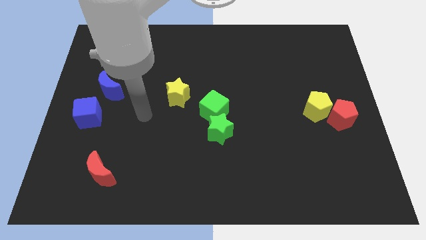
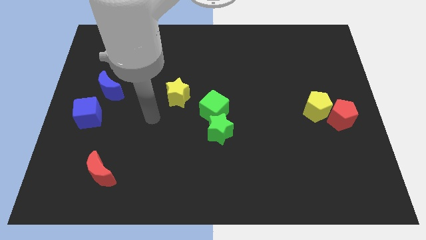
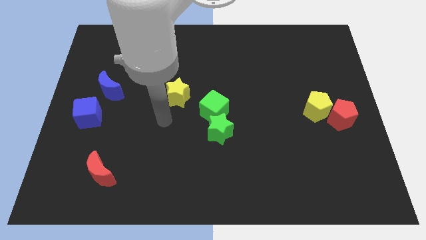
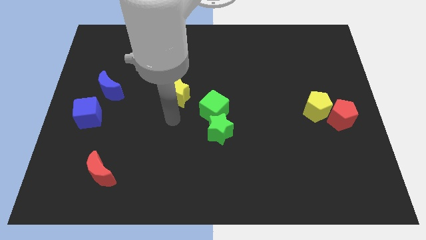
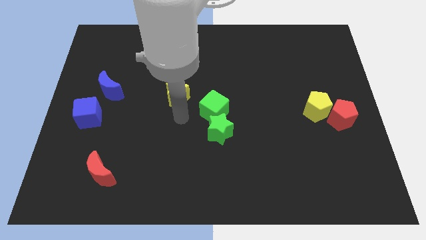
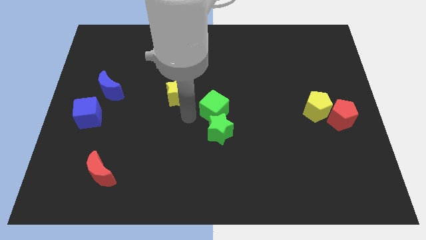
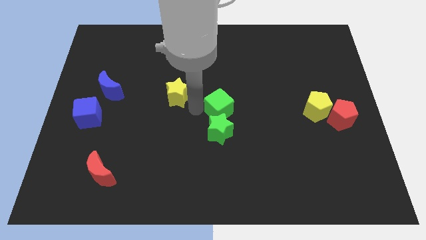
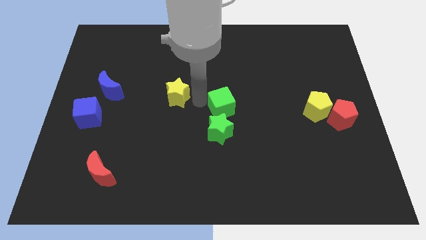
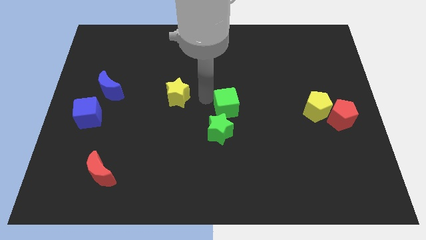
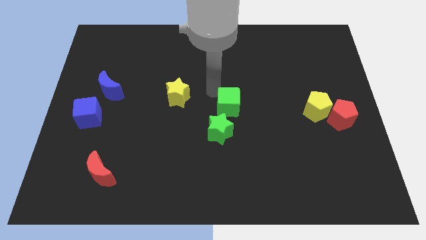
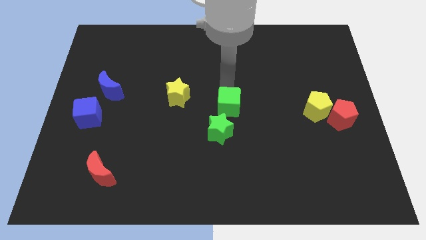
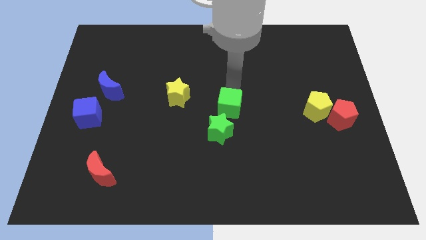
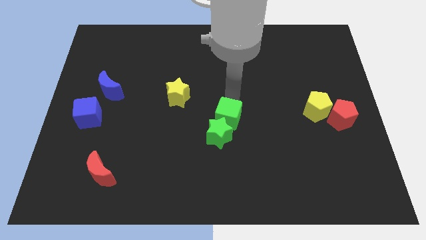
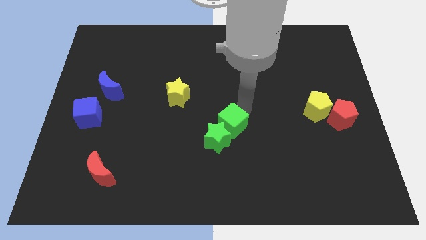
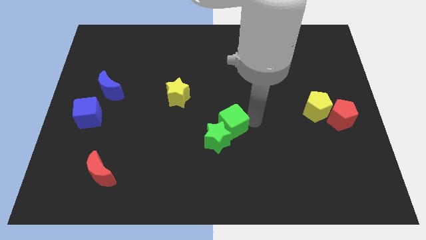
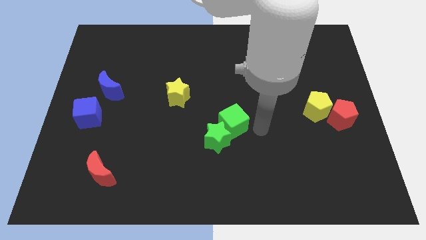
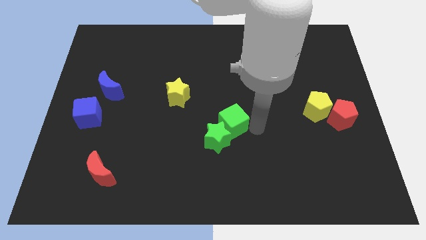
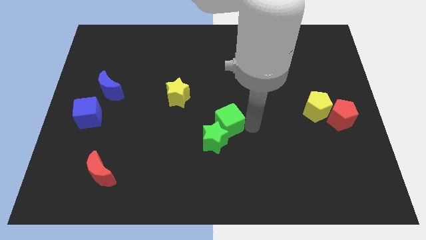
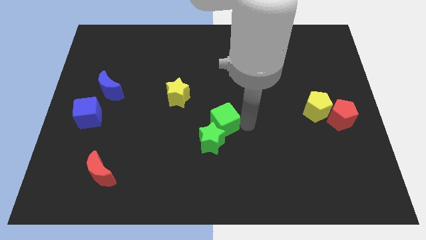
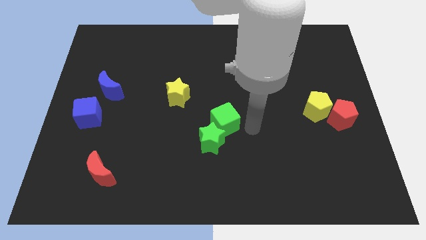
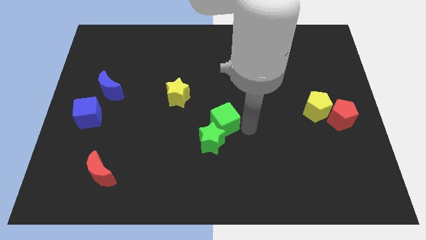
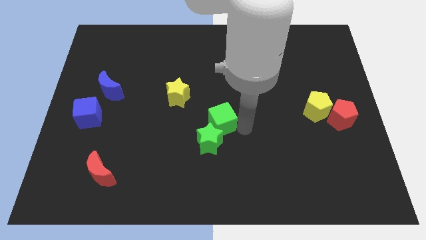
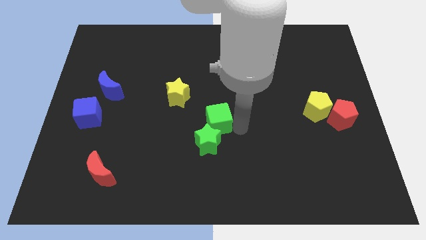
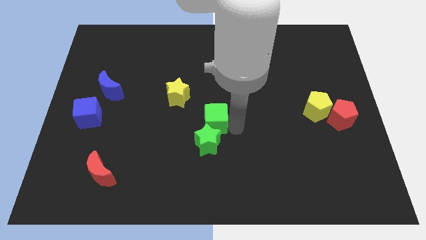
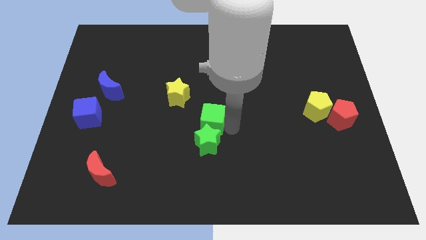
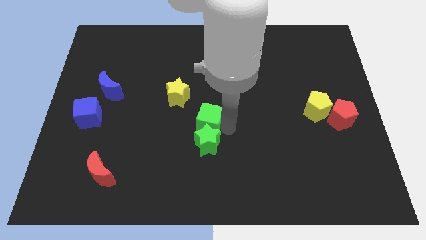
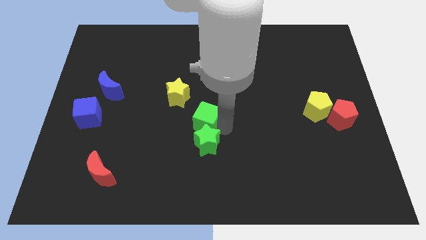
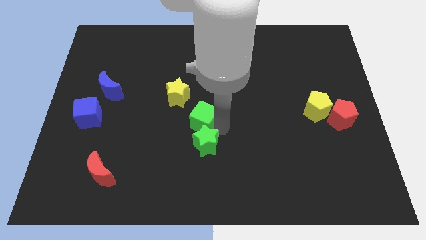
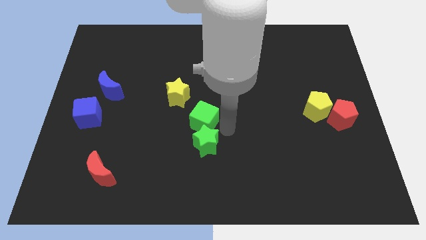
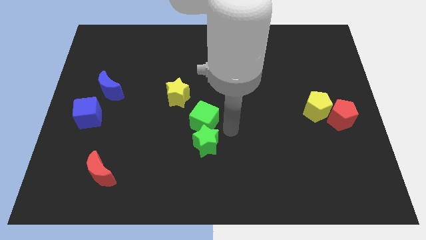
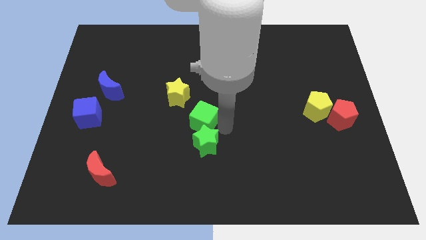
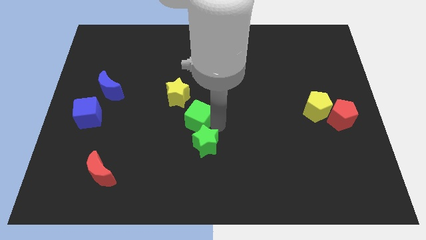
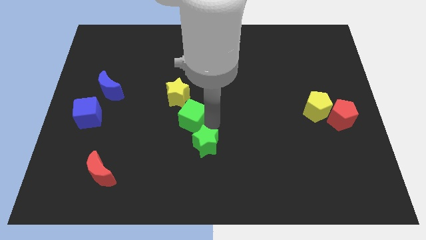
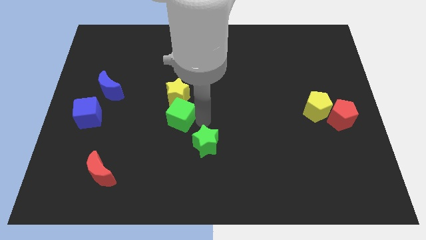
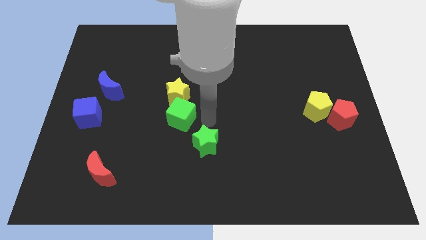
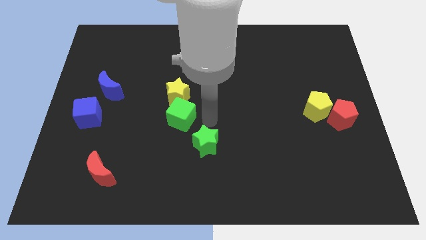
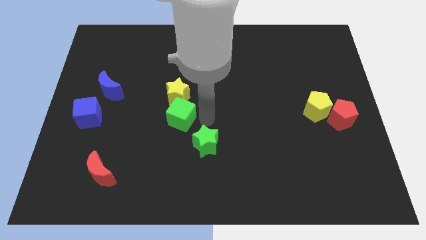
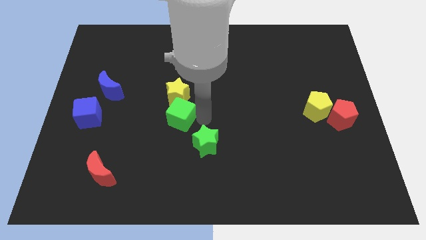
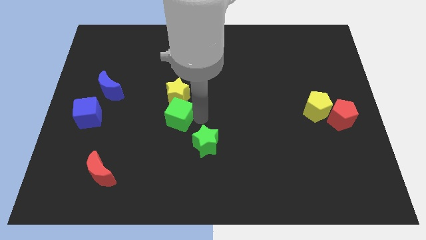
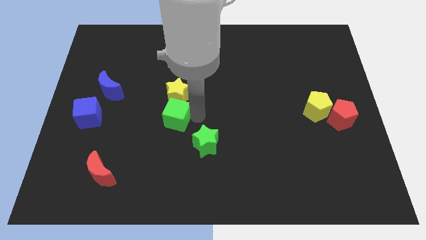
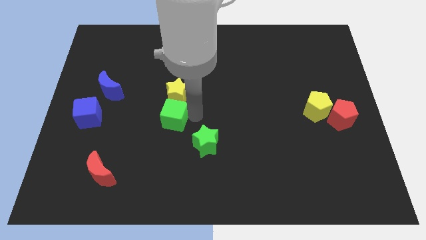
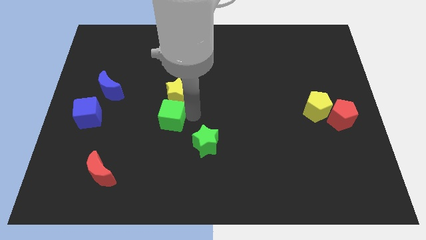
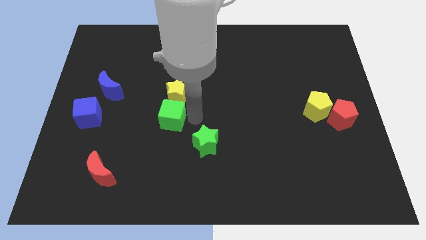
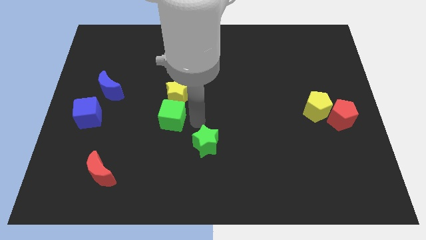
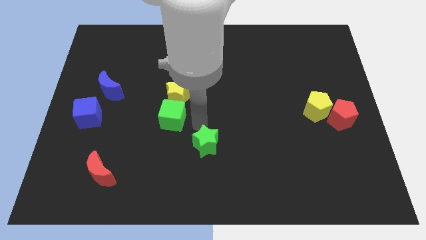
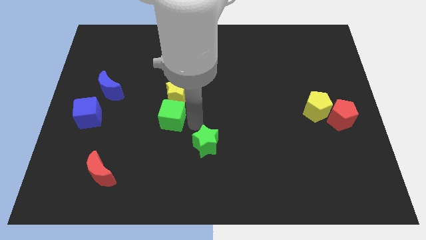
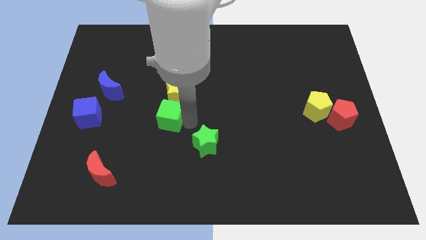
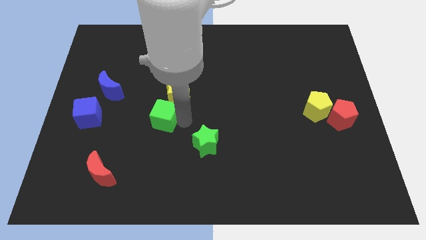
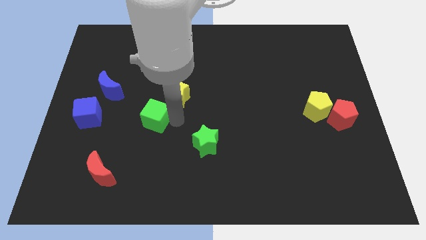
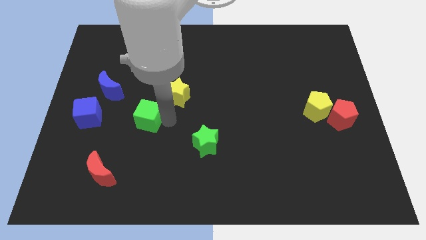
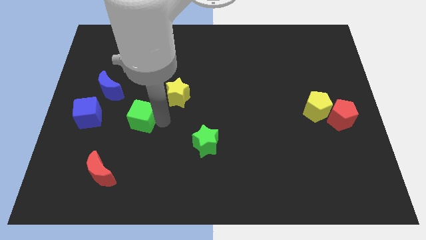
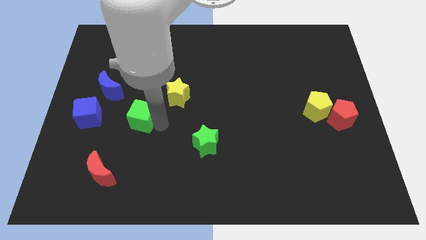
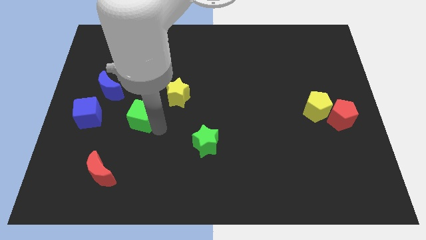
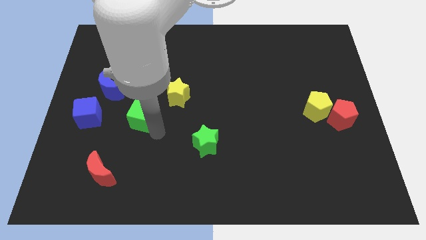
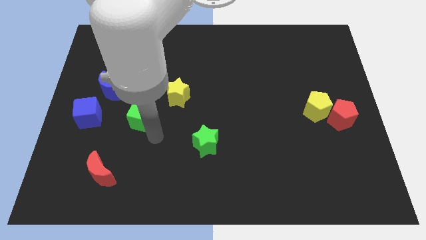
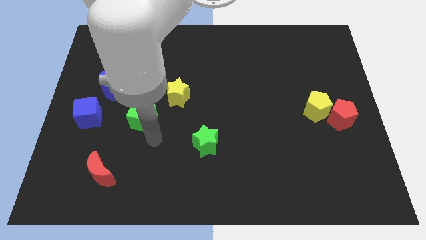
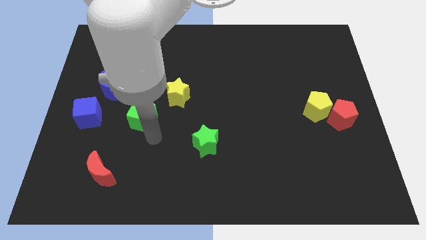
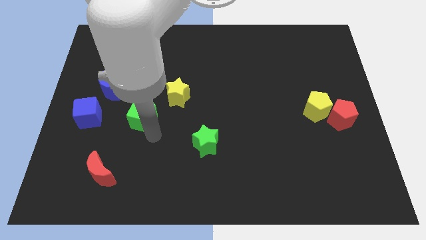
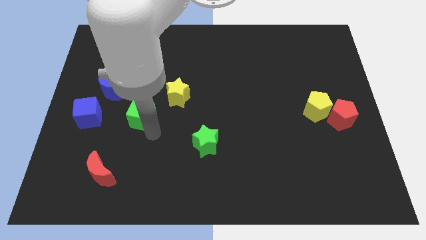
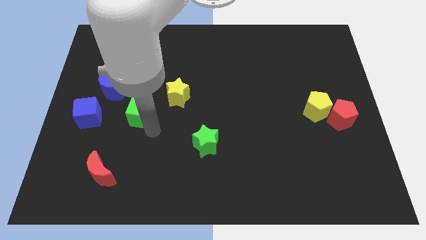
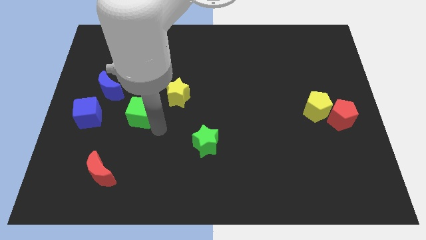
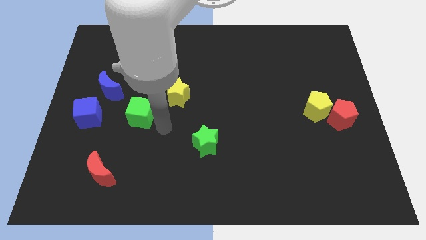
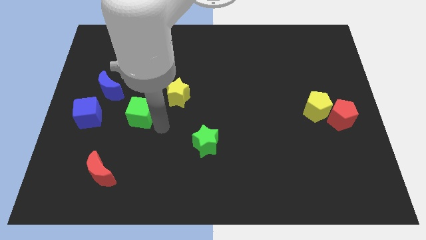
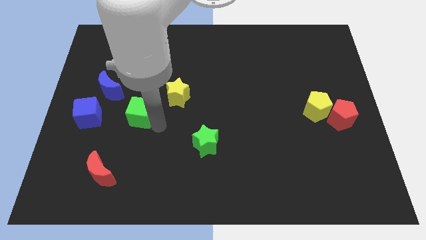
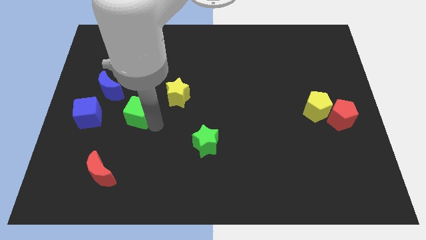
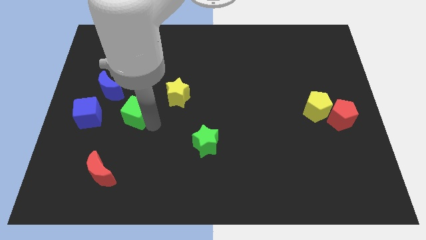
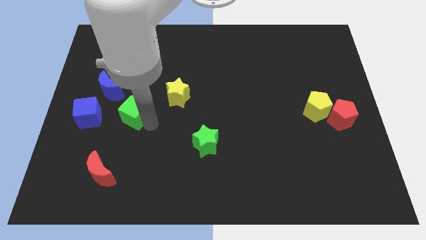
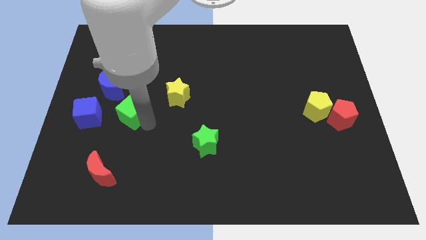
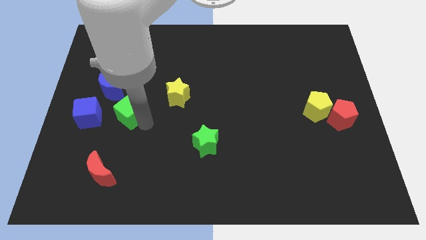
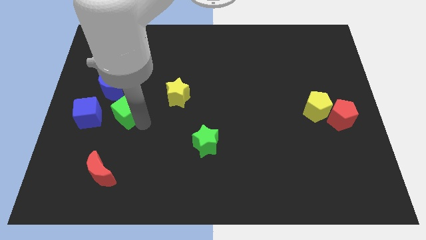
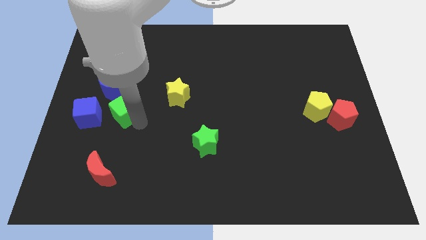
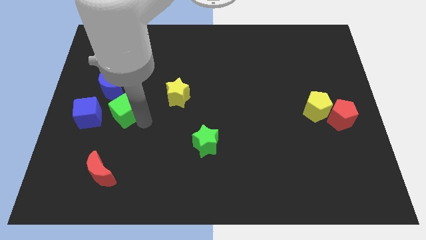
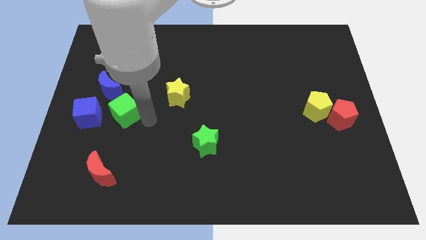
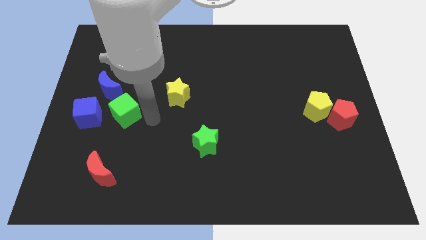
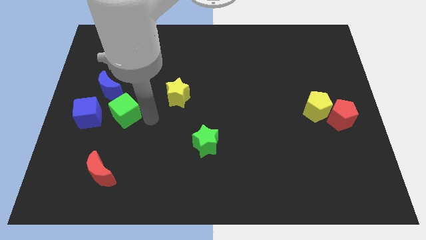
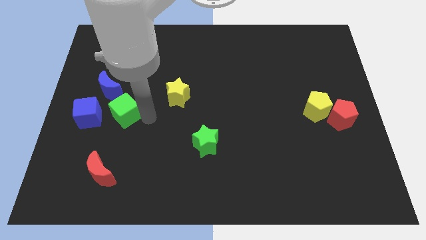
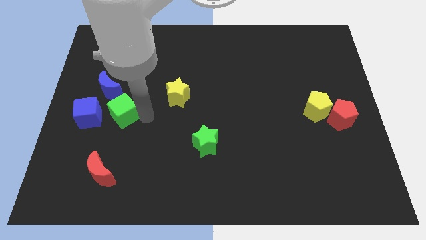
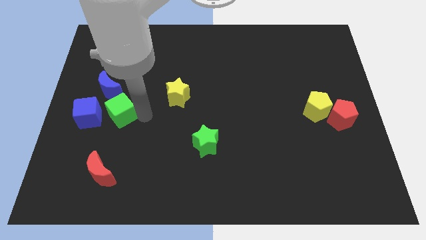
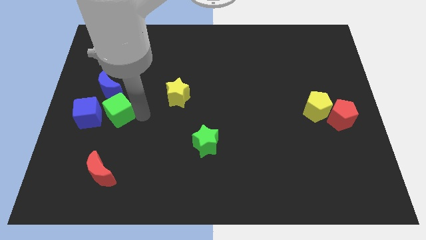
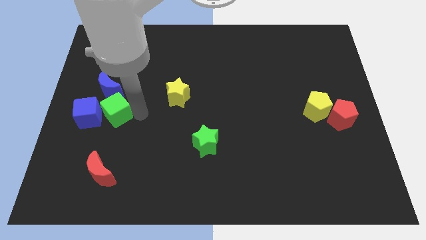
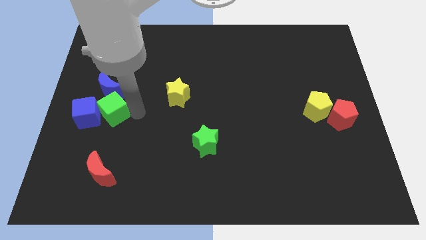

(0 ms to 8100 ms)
put the green cube next to the blue cube
